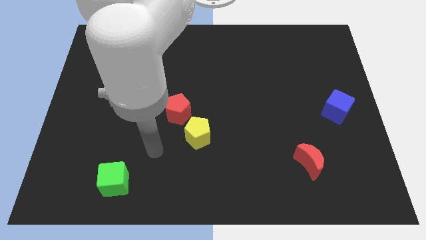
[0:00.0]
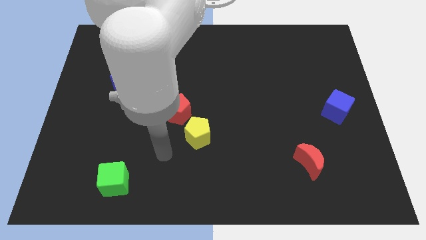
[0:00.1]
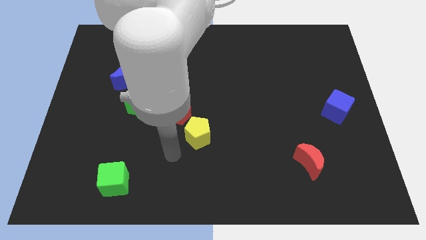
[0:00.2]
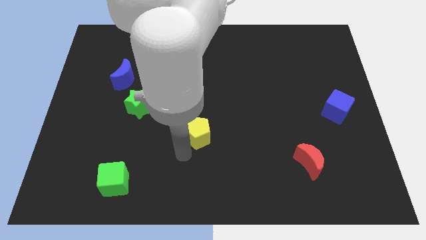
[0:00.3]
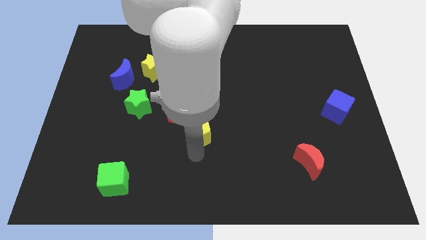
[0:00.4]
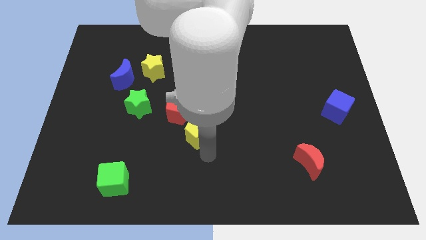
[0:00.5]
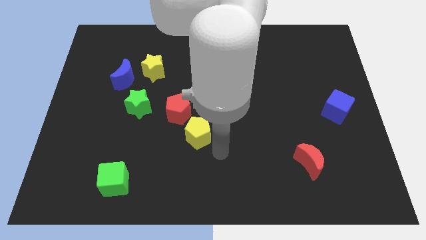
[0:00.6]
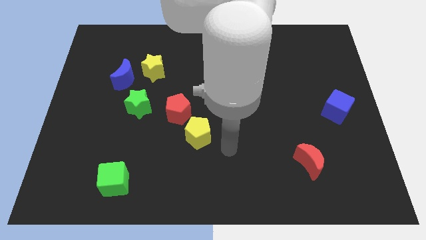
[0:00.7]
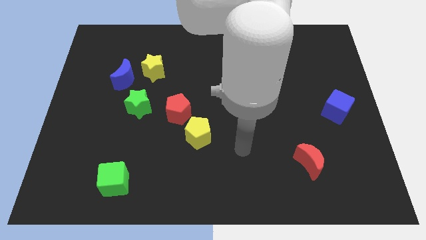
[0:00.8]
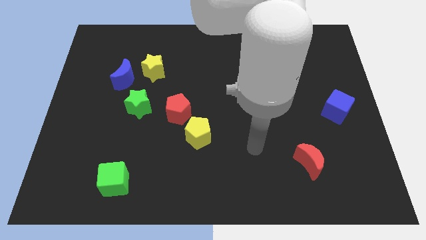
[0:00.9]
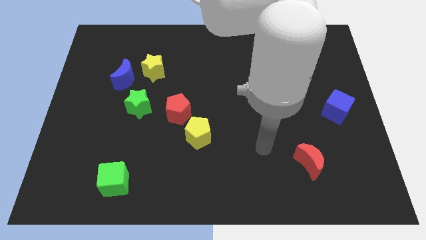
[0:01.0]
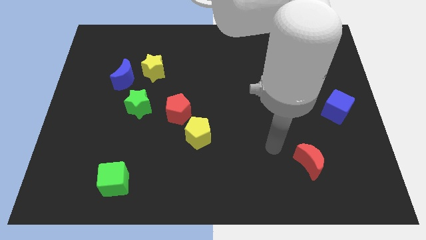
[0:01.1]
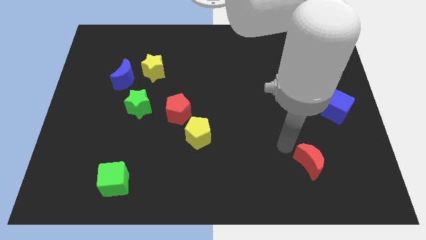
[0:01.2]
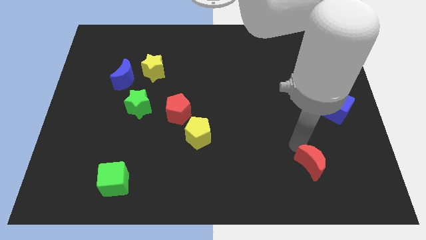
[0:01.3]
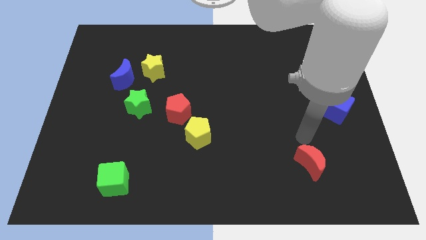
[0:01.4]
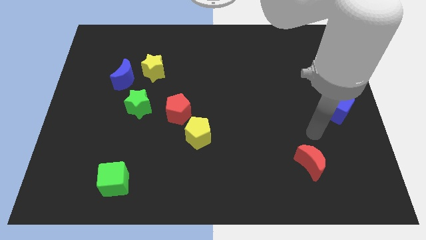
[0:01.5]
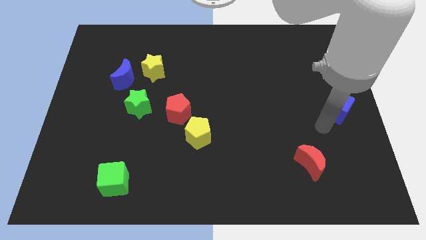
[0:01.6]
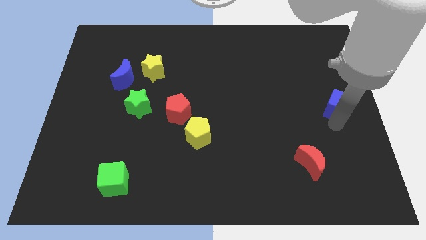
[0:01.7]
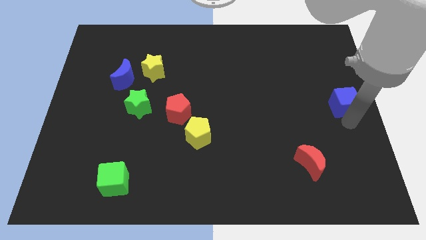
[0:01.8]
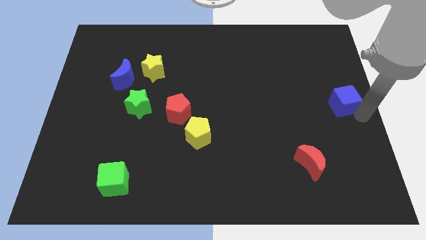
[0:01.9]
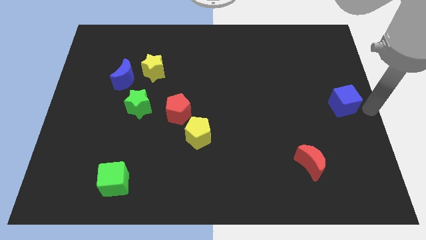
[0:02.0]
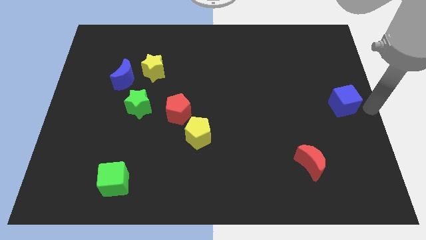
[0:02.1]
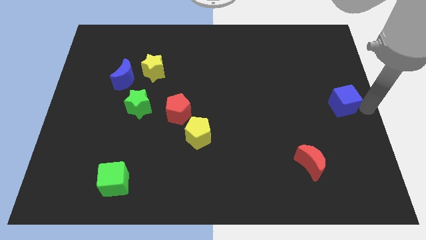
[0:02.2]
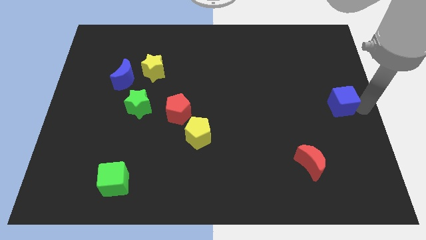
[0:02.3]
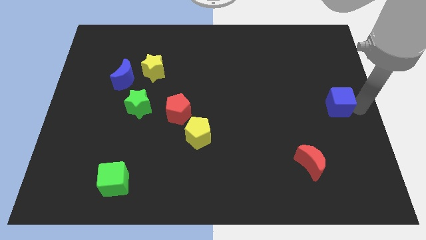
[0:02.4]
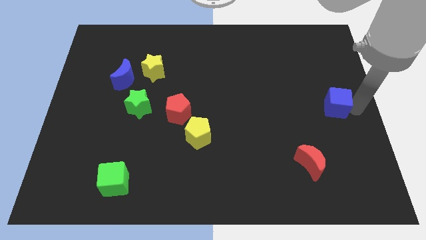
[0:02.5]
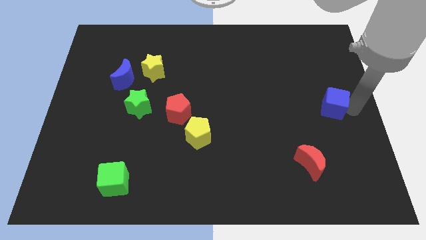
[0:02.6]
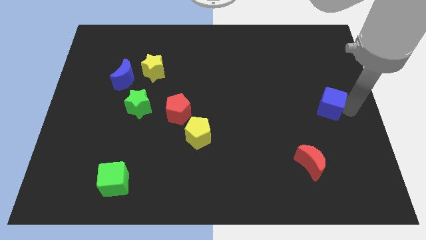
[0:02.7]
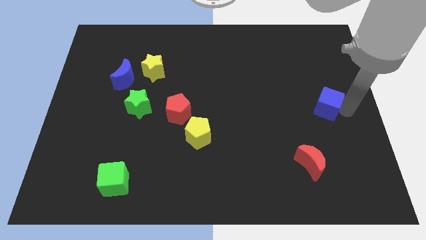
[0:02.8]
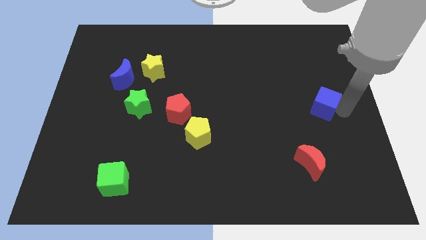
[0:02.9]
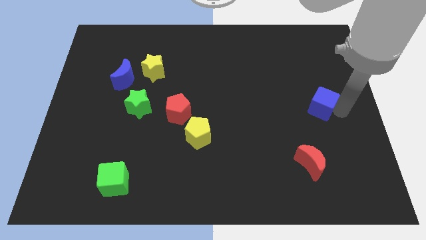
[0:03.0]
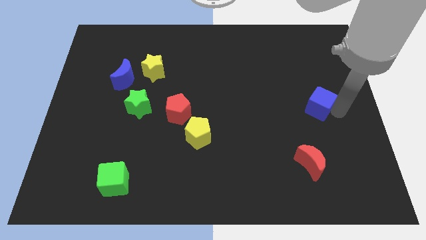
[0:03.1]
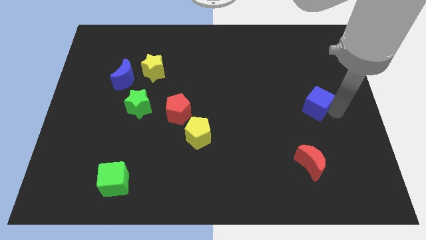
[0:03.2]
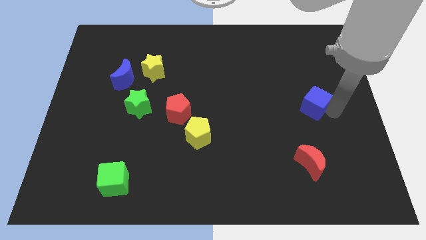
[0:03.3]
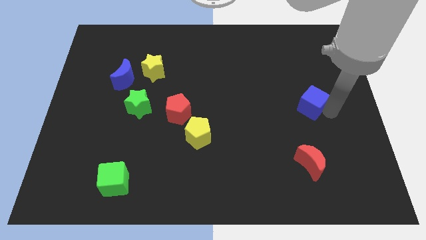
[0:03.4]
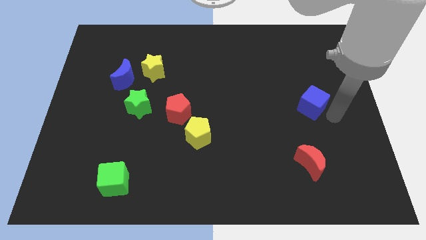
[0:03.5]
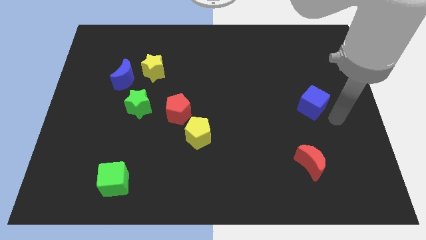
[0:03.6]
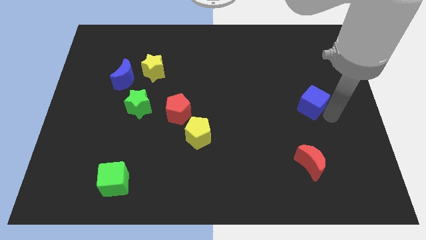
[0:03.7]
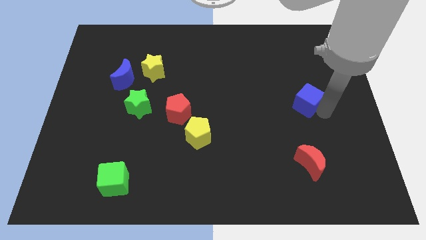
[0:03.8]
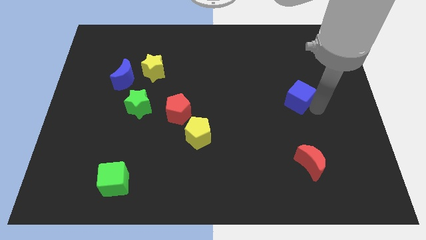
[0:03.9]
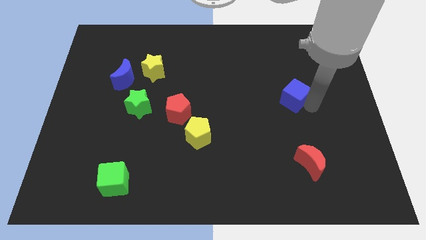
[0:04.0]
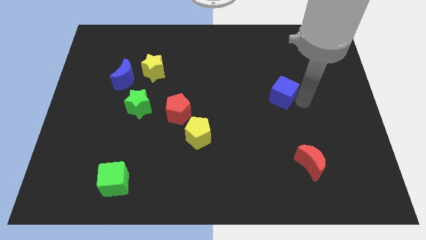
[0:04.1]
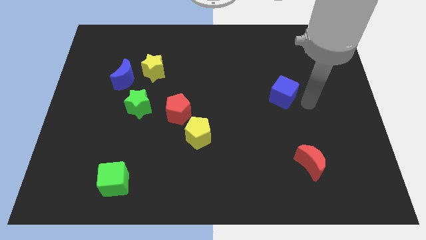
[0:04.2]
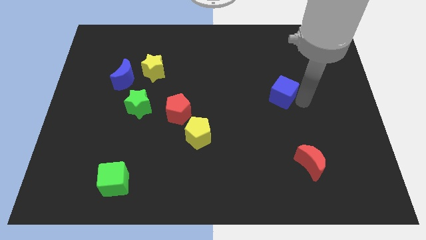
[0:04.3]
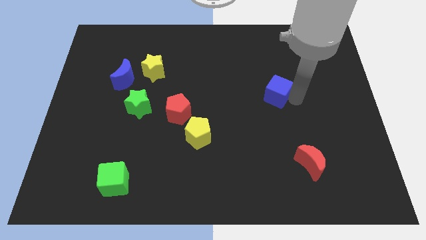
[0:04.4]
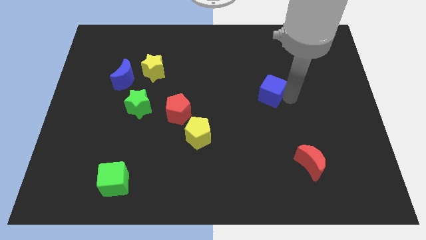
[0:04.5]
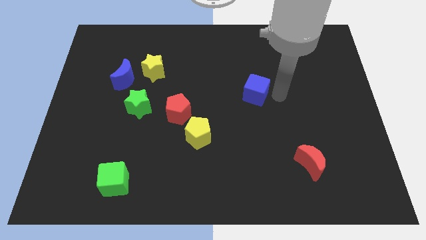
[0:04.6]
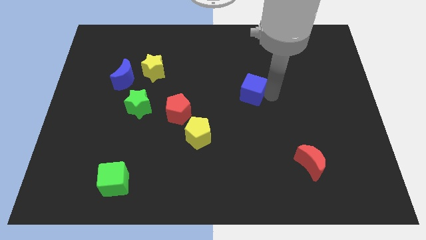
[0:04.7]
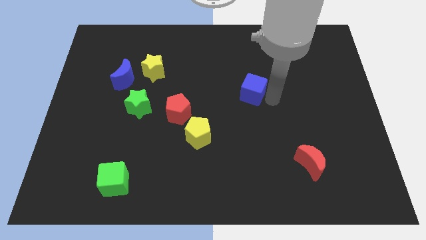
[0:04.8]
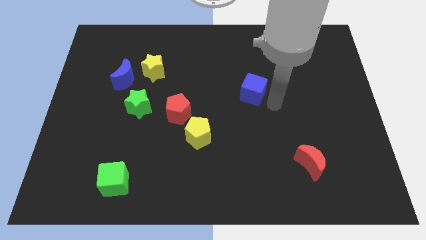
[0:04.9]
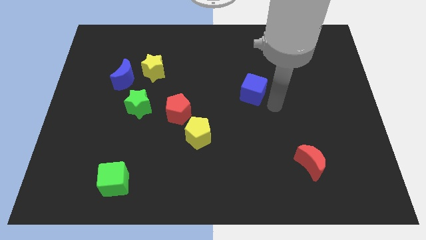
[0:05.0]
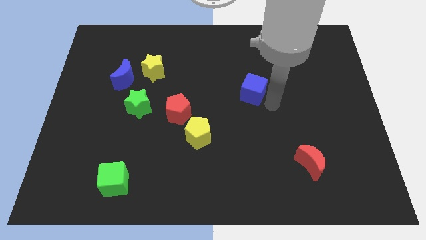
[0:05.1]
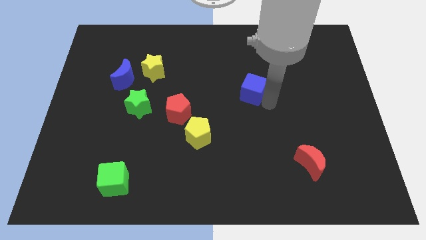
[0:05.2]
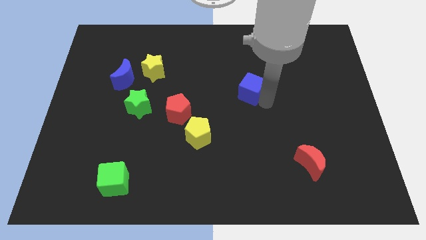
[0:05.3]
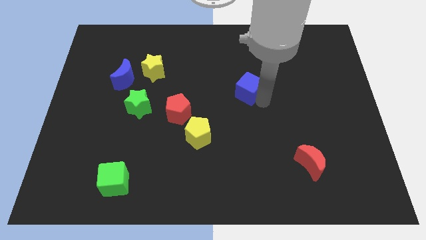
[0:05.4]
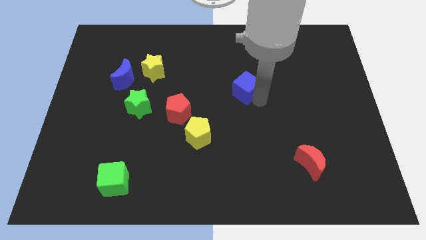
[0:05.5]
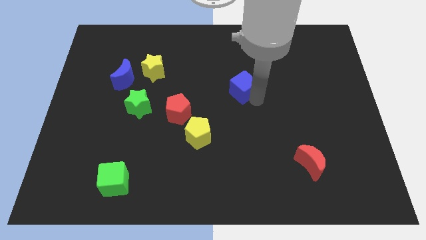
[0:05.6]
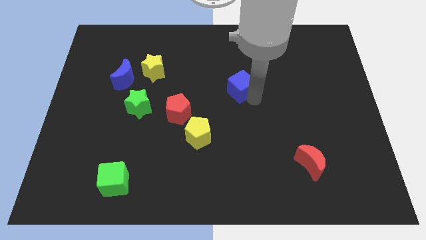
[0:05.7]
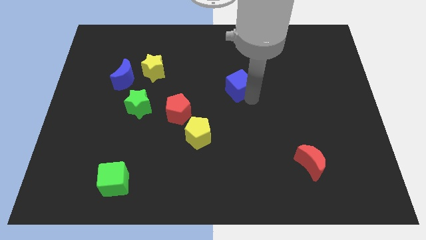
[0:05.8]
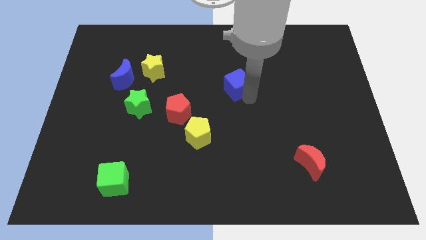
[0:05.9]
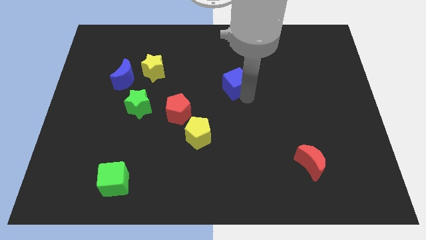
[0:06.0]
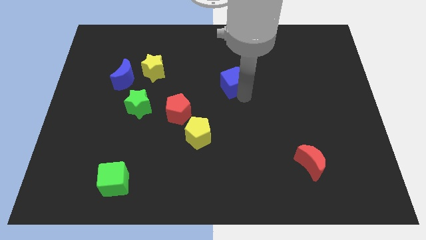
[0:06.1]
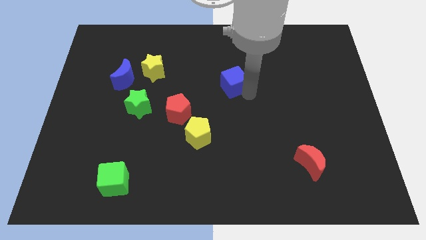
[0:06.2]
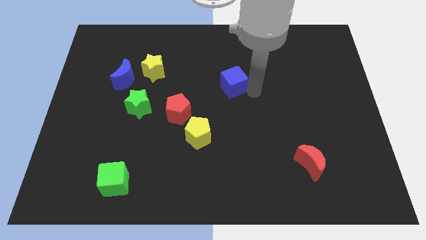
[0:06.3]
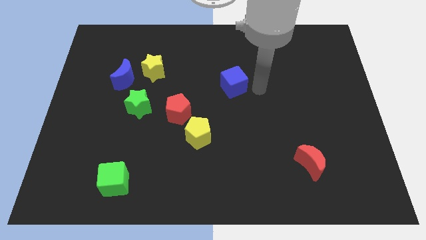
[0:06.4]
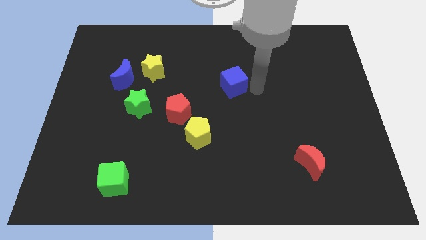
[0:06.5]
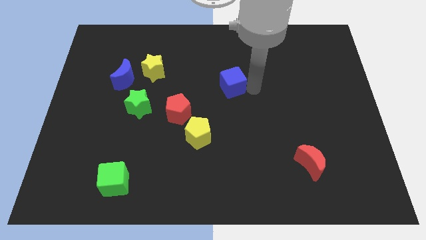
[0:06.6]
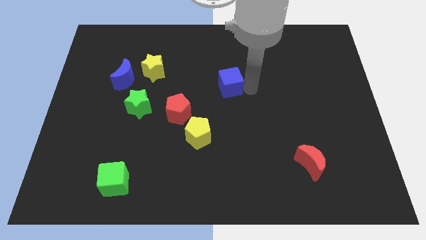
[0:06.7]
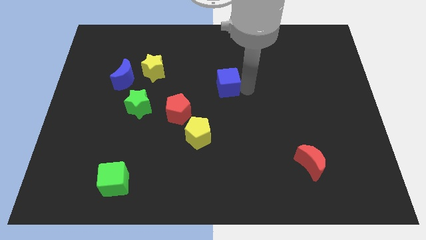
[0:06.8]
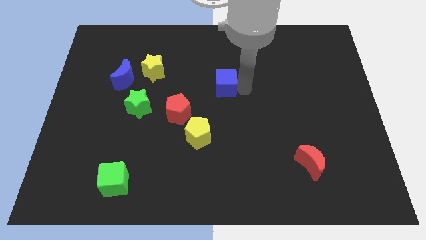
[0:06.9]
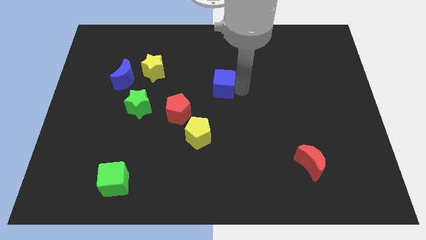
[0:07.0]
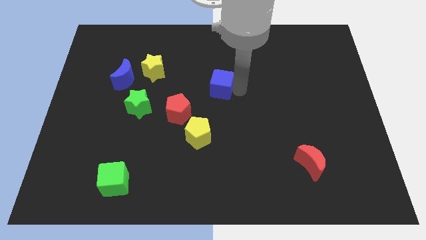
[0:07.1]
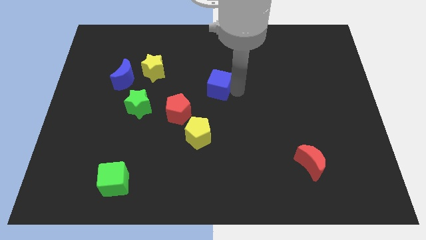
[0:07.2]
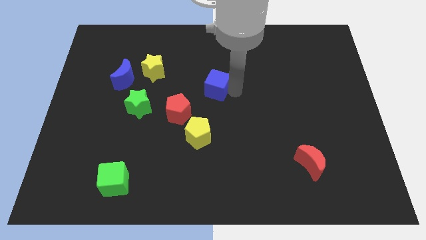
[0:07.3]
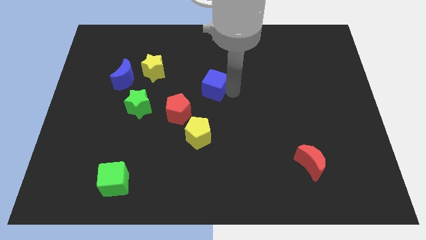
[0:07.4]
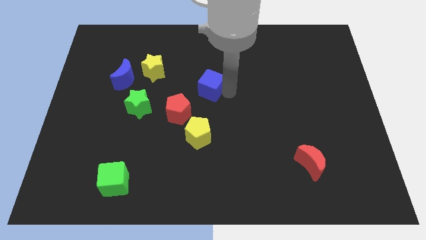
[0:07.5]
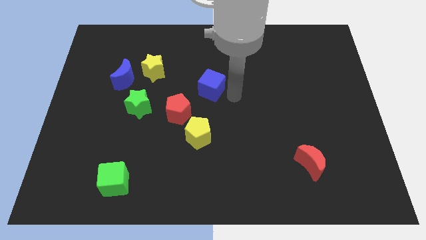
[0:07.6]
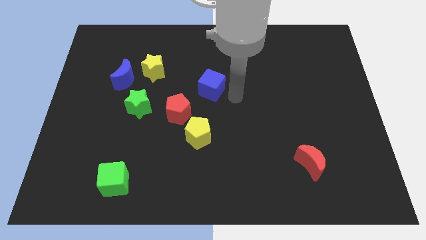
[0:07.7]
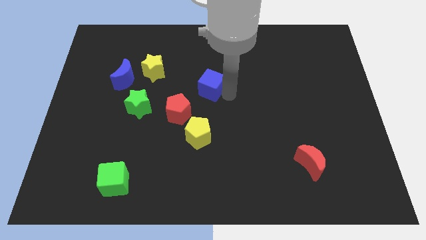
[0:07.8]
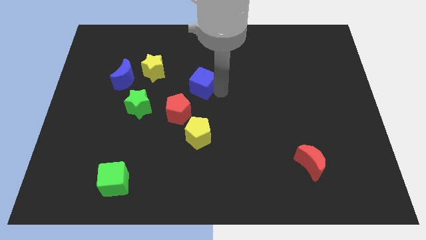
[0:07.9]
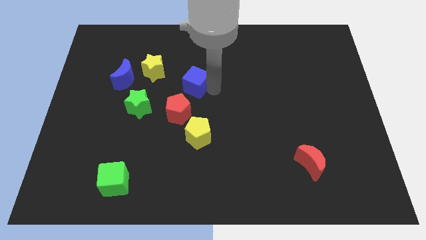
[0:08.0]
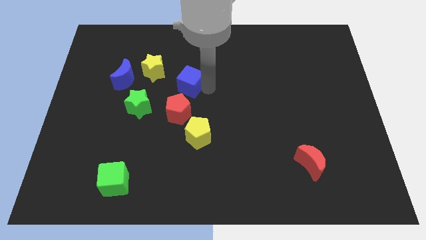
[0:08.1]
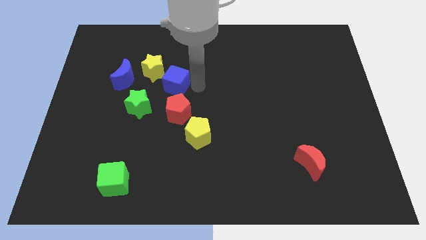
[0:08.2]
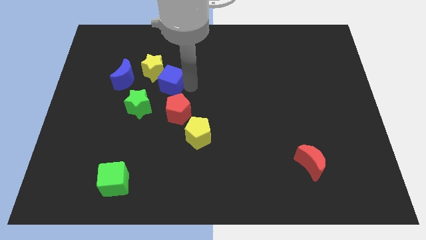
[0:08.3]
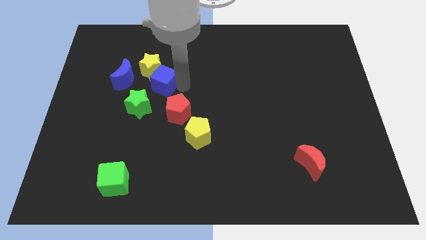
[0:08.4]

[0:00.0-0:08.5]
slide the blue cube towards the yellow star
